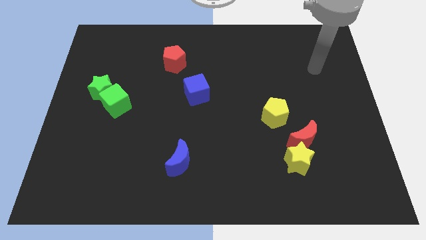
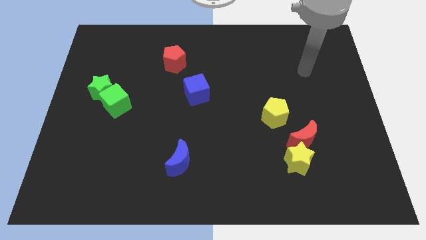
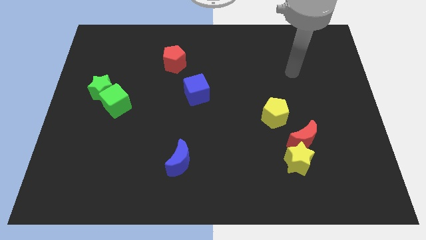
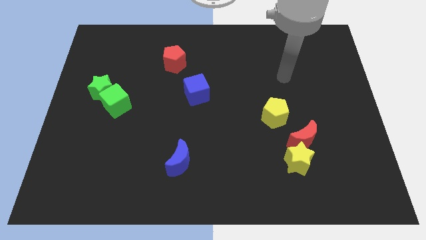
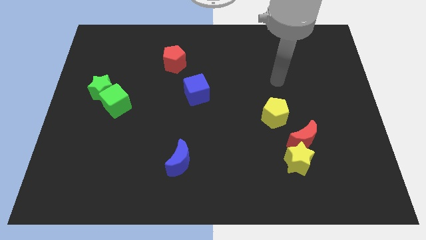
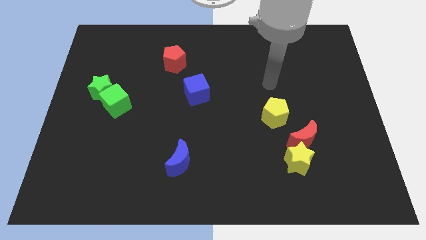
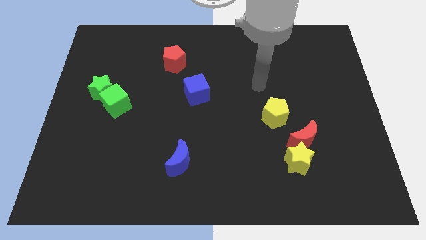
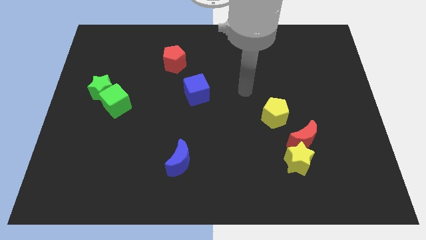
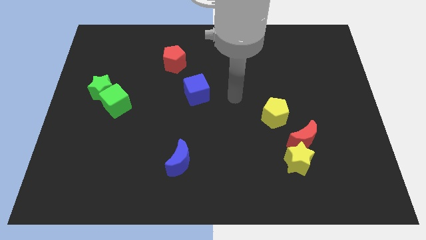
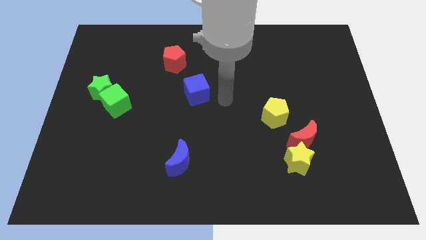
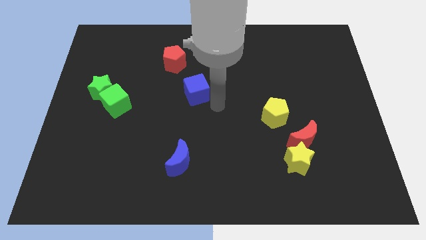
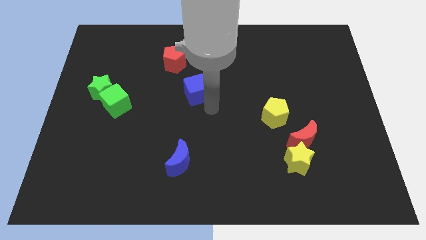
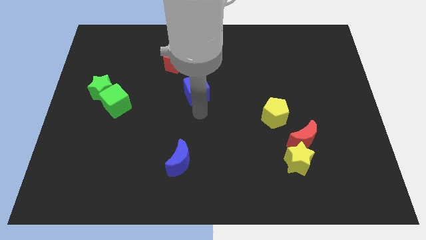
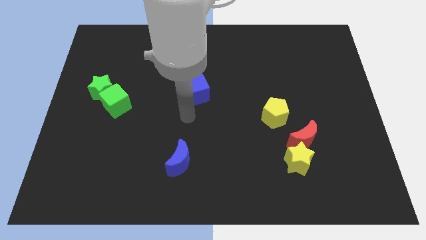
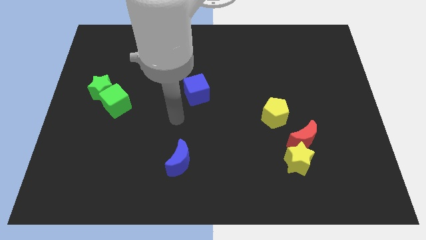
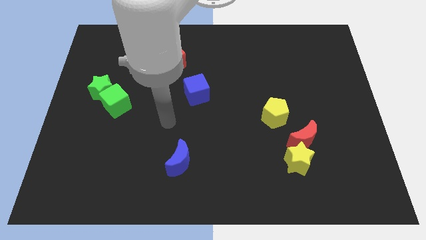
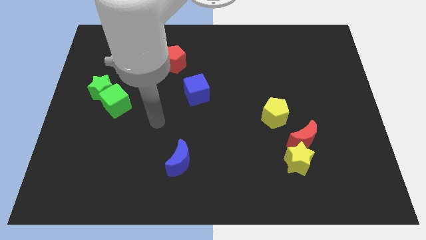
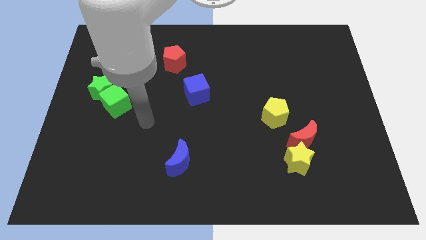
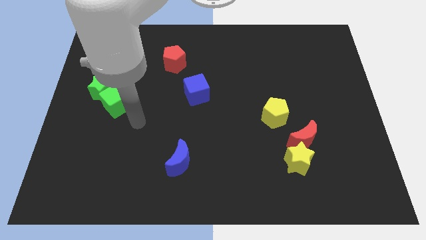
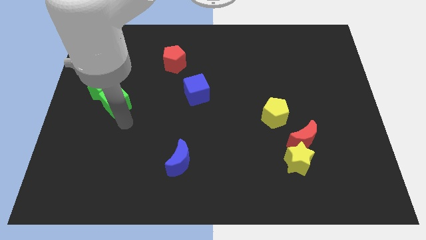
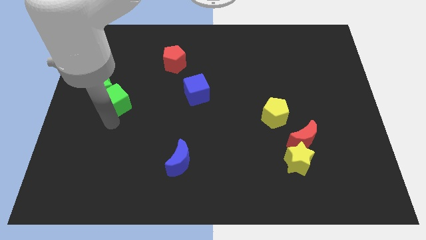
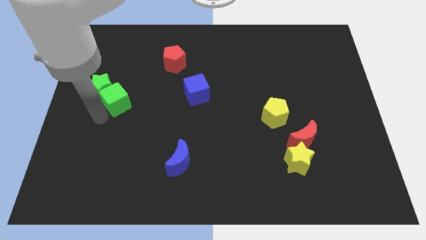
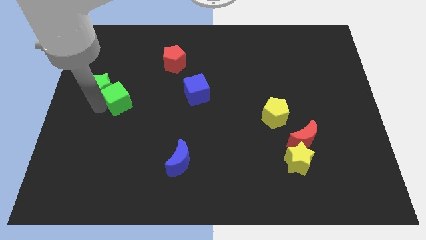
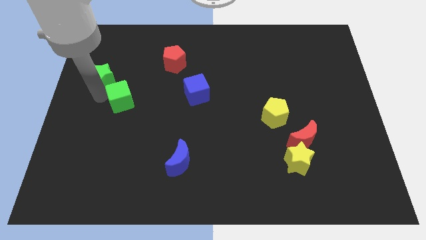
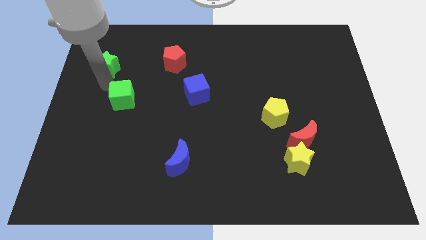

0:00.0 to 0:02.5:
separate the green cube from the green star

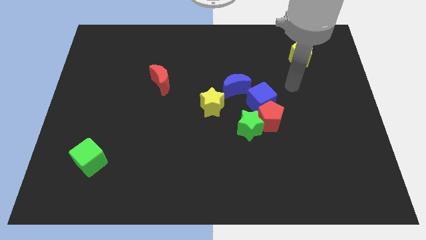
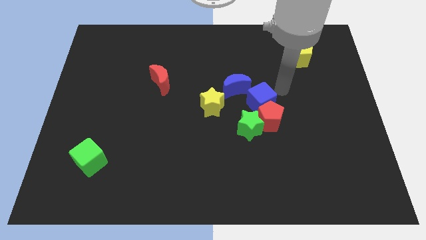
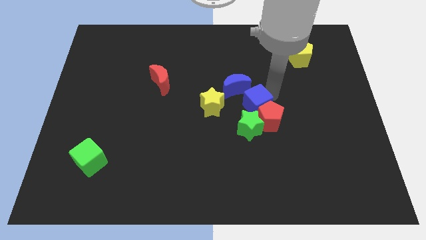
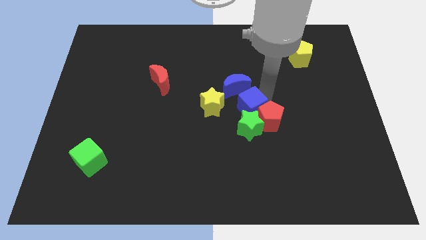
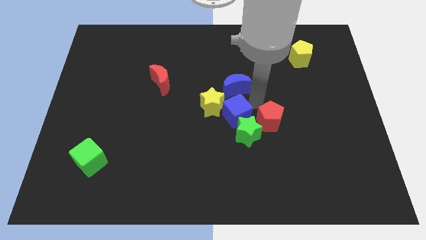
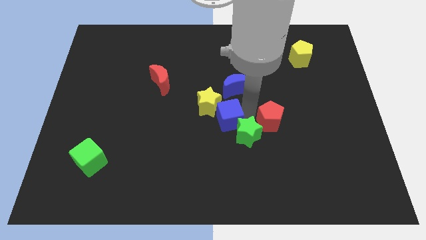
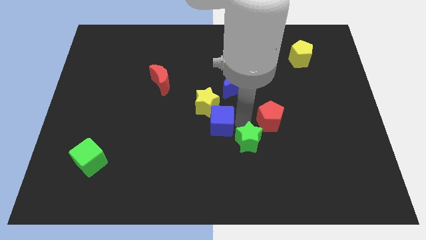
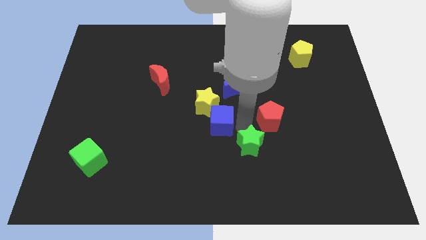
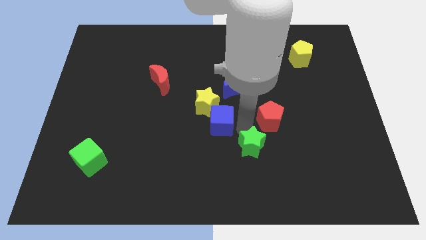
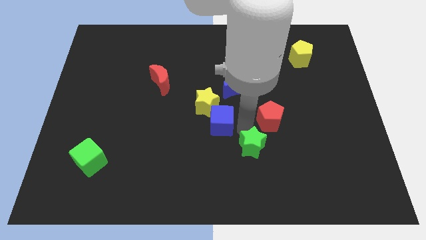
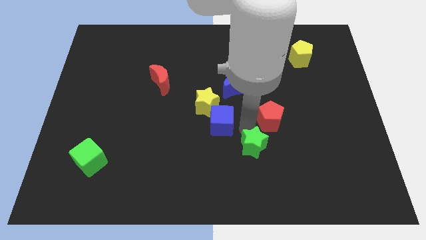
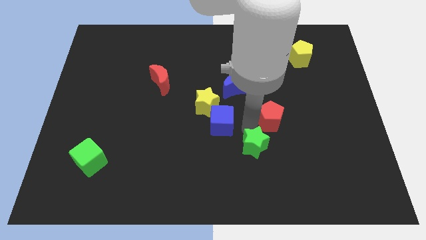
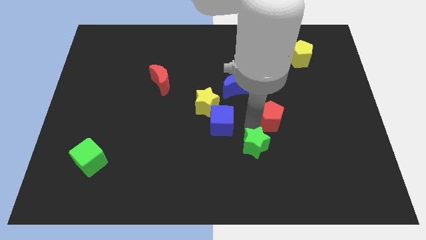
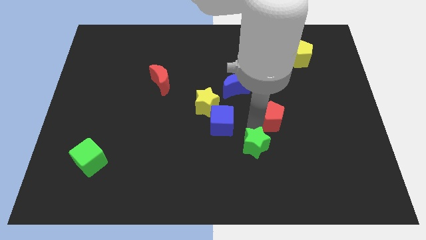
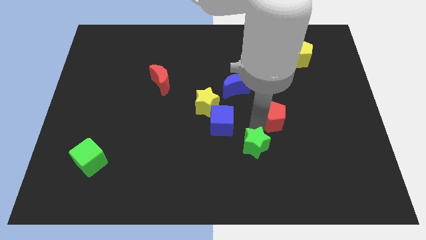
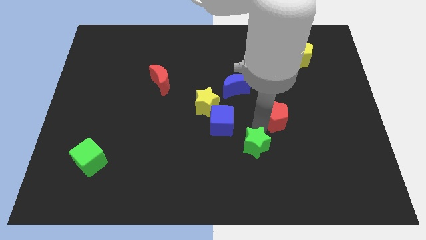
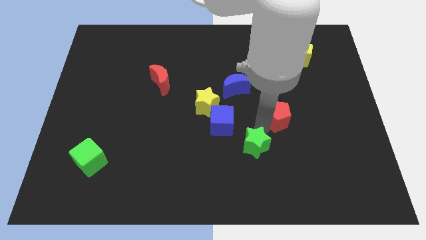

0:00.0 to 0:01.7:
separate the red pentagon from the green star and blue cube

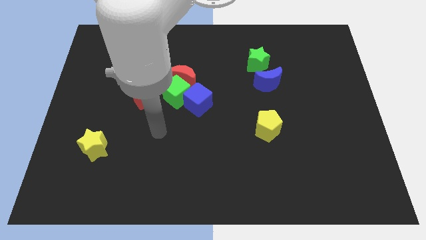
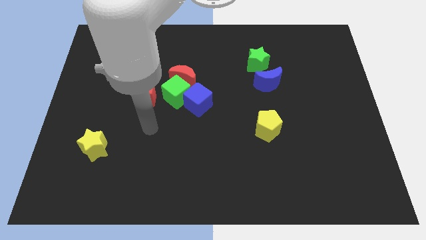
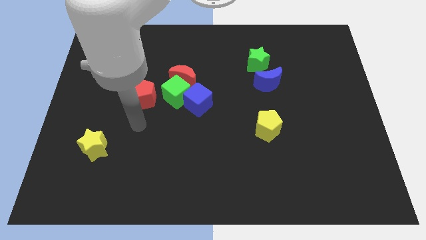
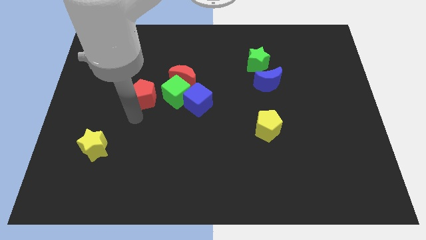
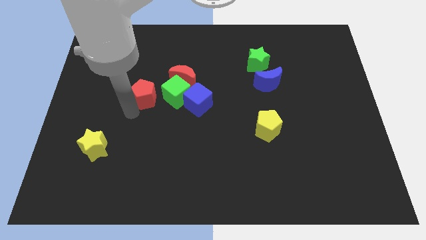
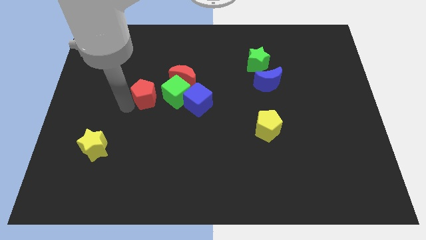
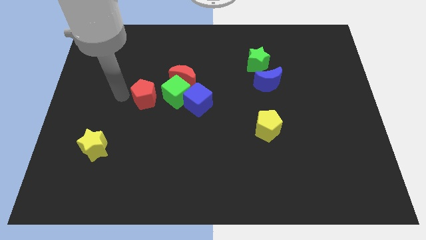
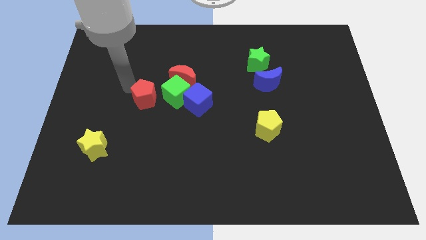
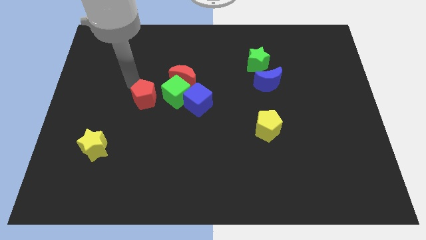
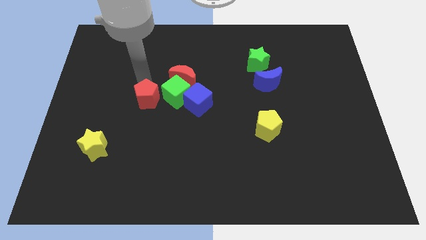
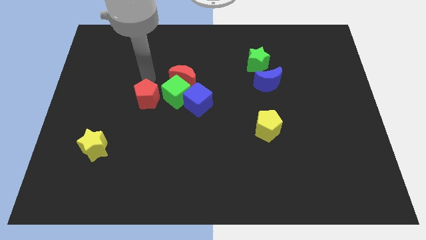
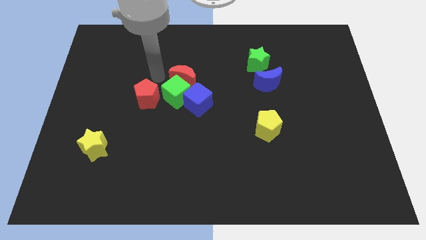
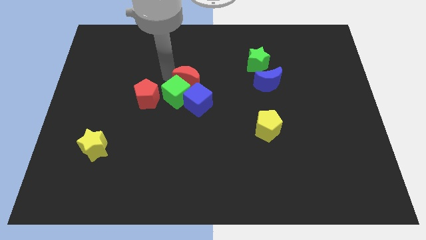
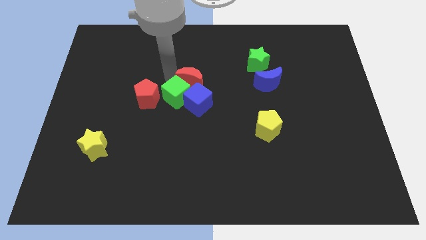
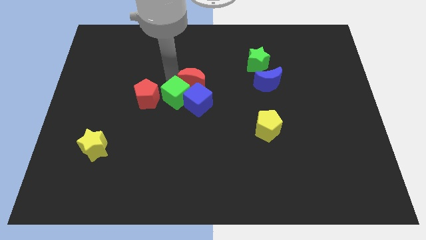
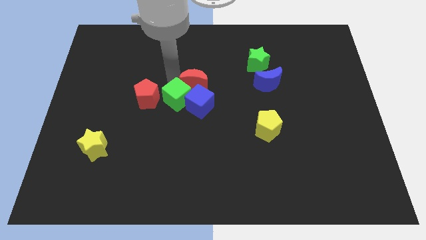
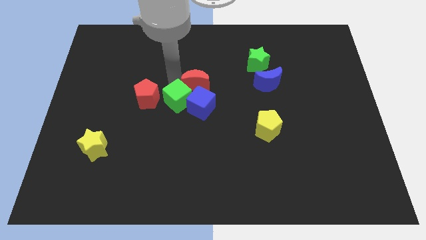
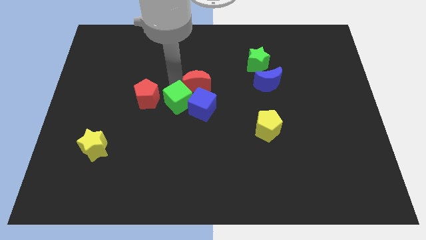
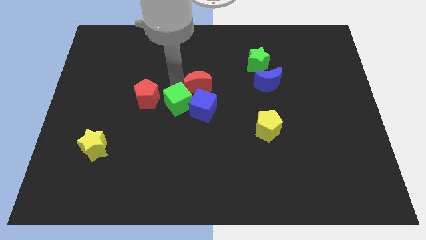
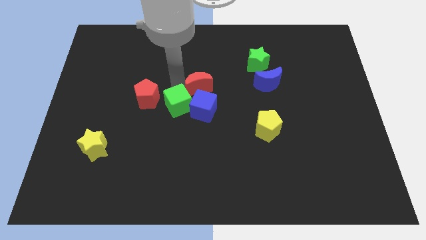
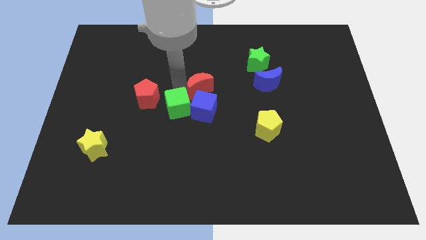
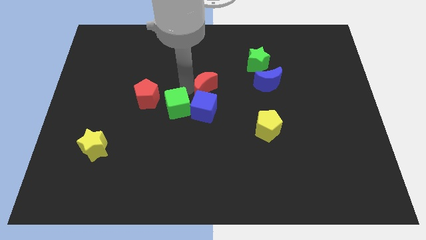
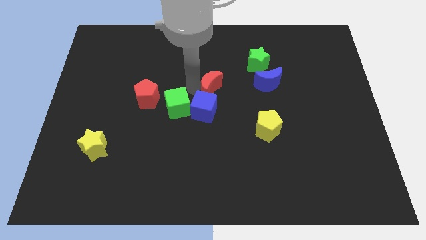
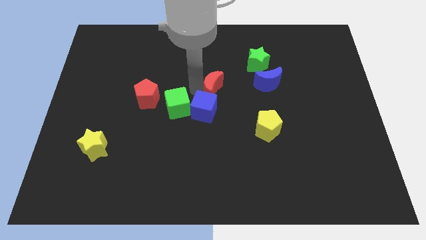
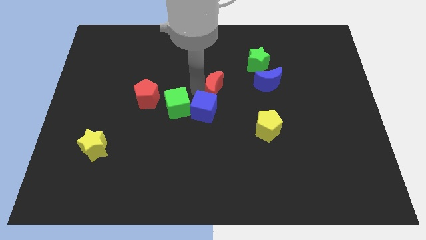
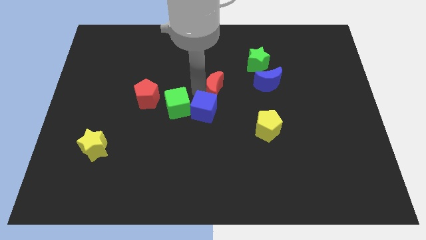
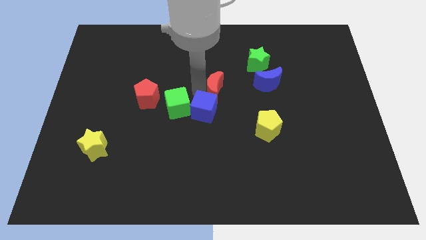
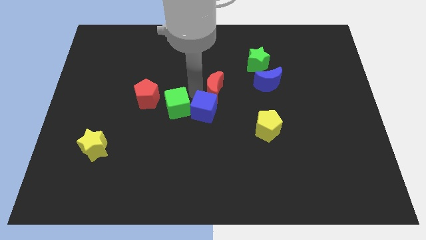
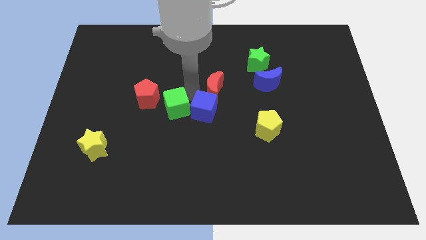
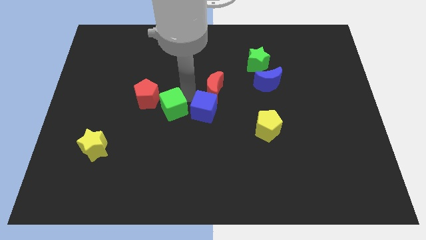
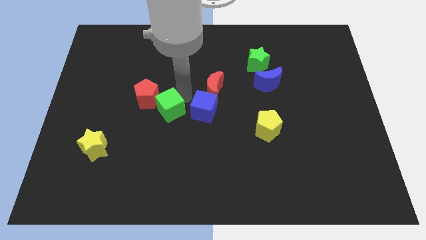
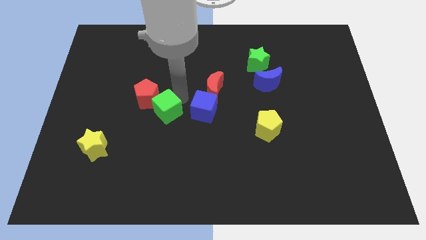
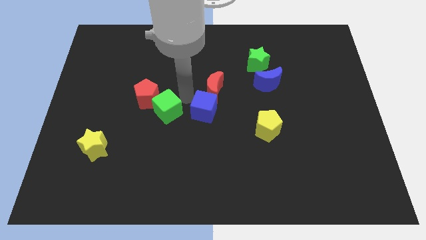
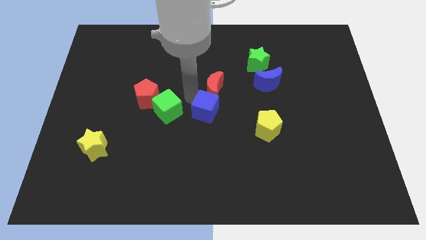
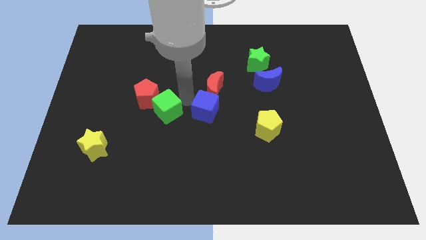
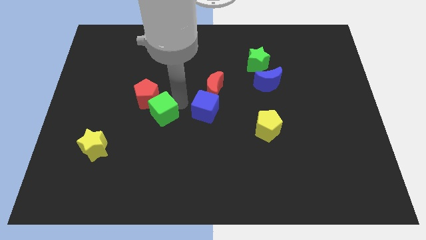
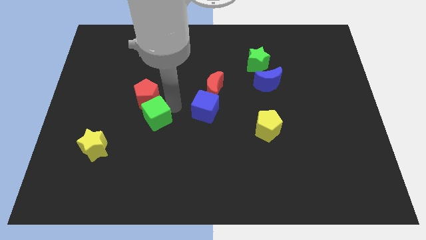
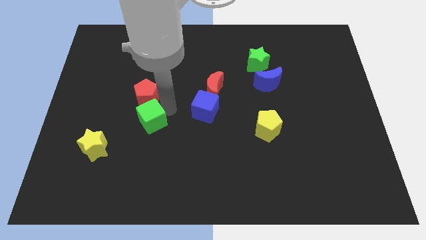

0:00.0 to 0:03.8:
move the green cube away from the red moon, blue cube, and red pentagon

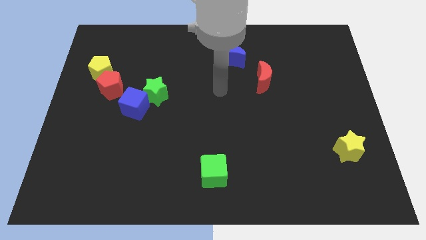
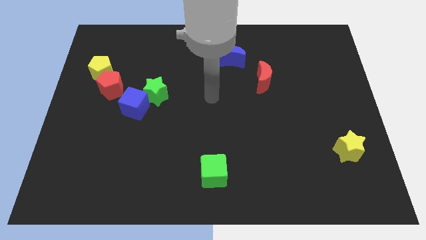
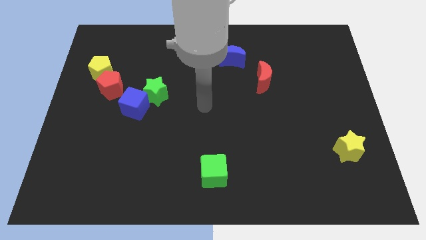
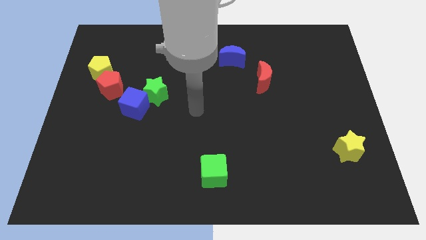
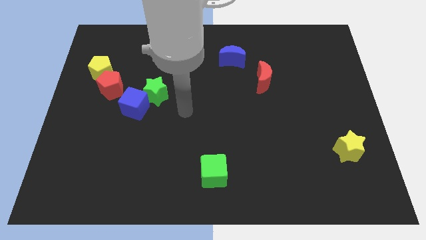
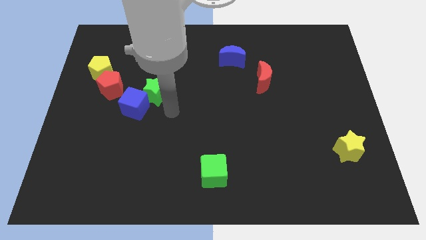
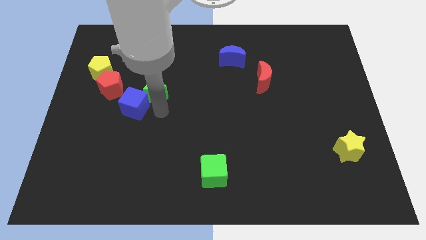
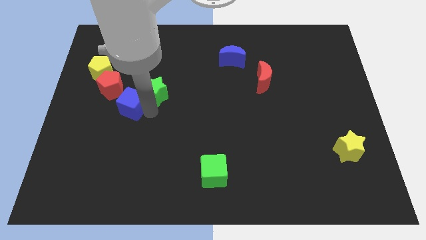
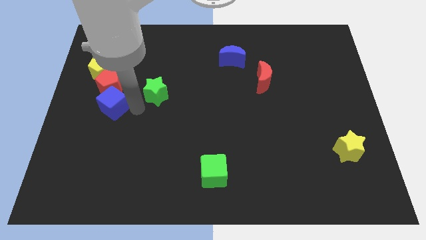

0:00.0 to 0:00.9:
pull the green star apart from the blue cube

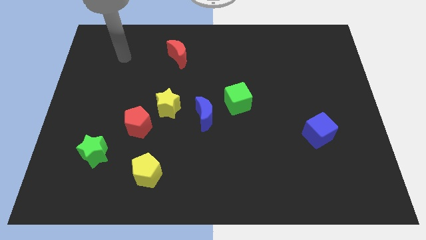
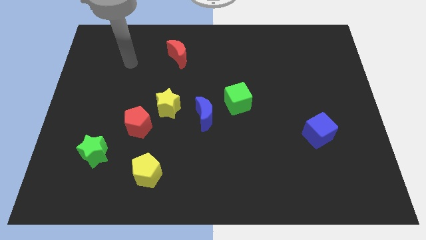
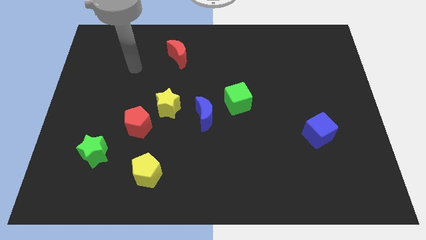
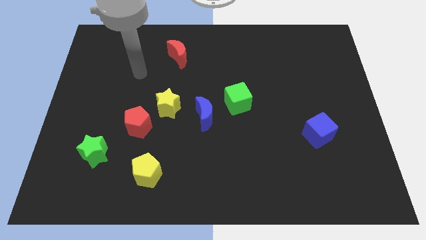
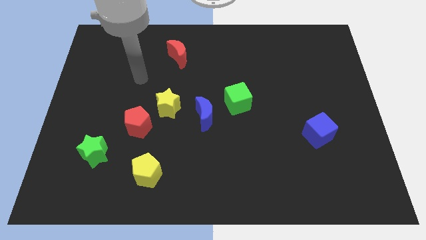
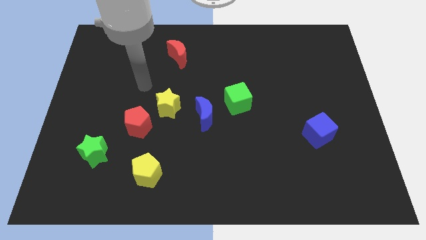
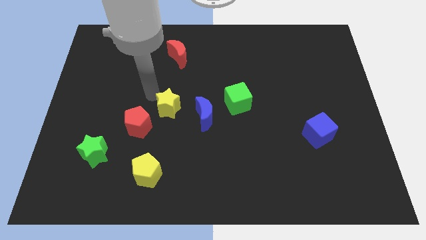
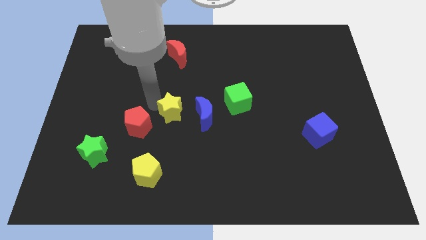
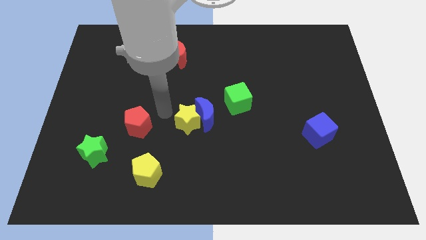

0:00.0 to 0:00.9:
move the red pentagon away from the yellow star
